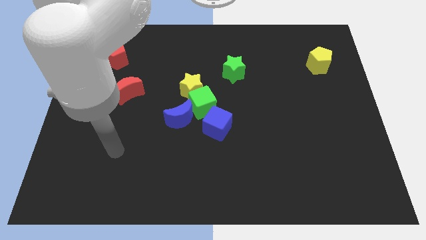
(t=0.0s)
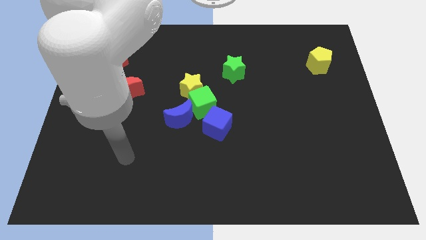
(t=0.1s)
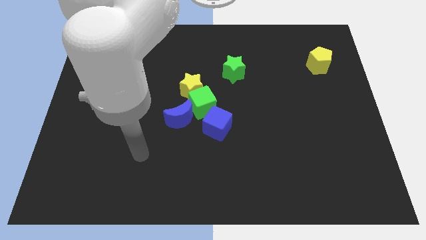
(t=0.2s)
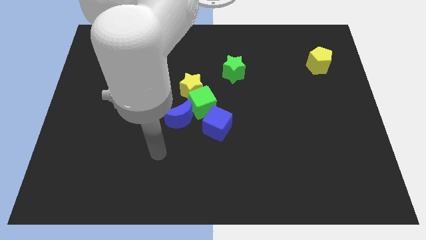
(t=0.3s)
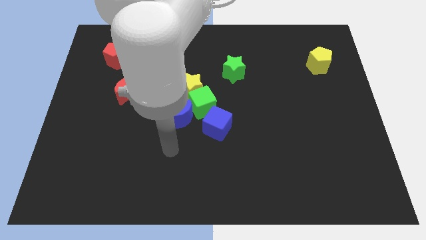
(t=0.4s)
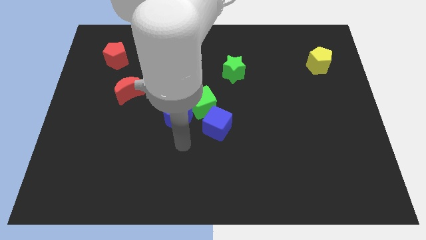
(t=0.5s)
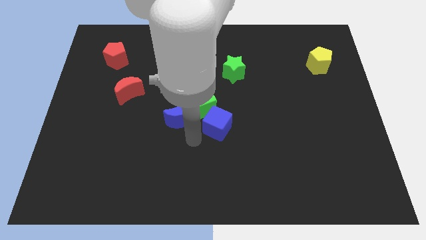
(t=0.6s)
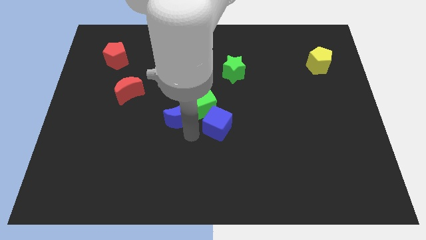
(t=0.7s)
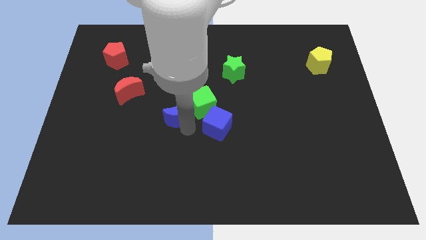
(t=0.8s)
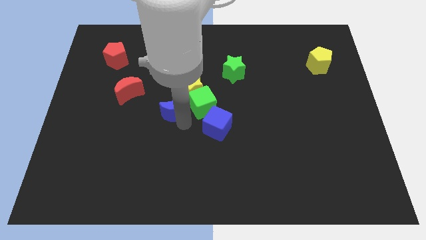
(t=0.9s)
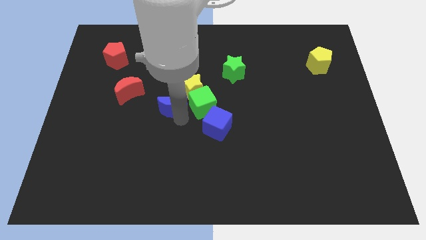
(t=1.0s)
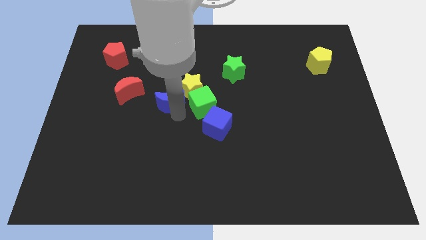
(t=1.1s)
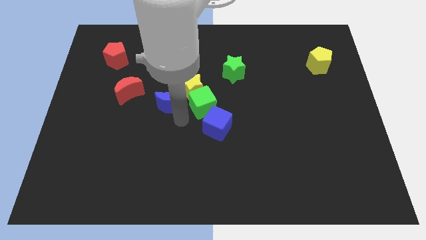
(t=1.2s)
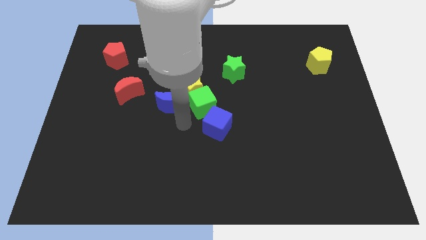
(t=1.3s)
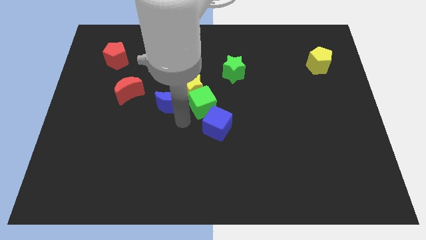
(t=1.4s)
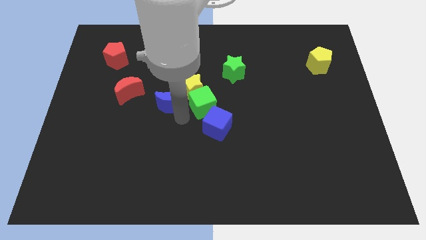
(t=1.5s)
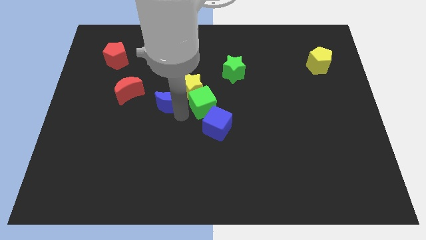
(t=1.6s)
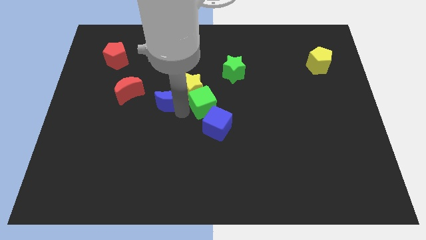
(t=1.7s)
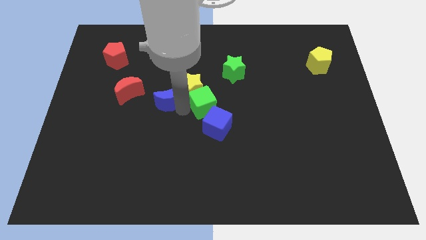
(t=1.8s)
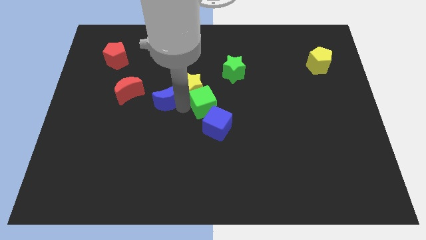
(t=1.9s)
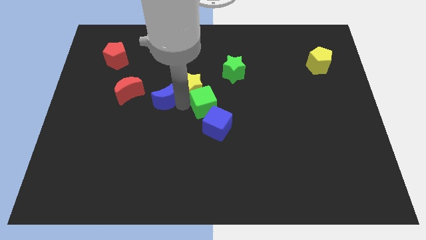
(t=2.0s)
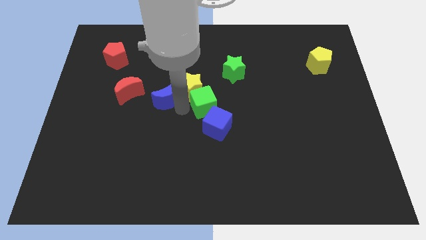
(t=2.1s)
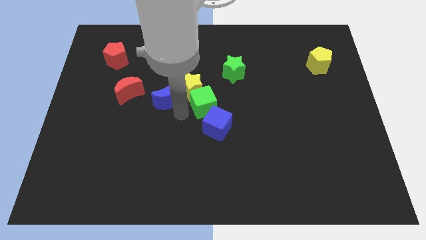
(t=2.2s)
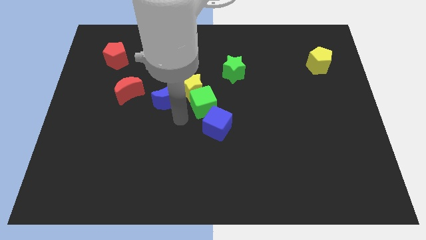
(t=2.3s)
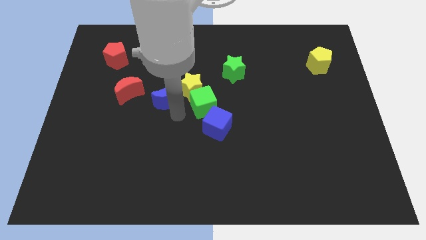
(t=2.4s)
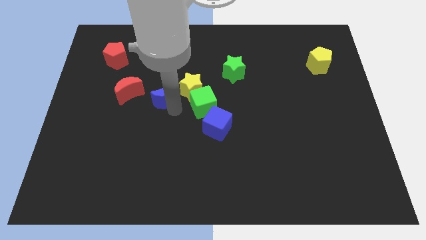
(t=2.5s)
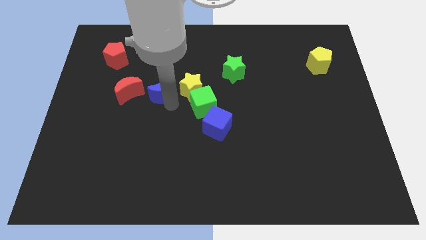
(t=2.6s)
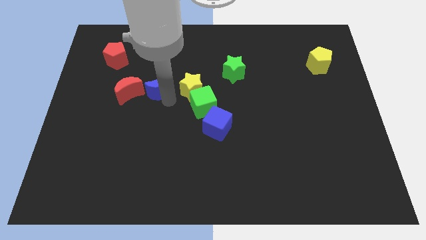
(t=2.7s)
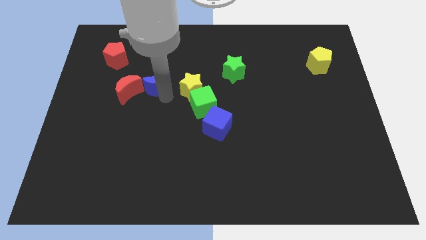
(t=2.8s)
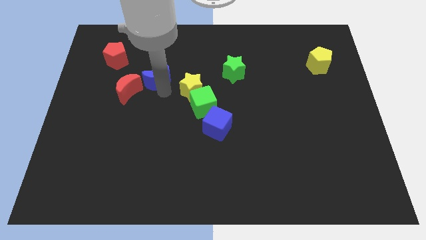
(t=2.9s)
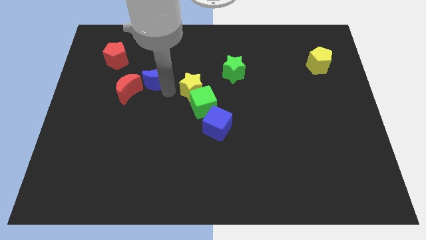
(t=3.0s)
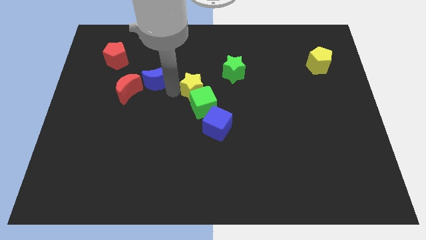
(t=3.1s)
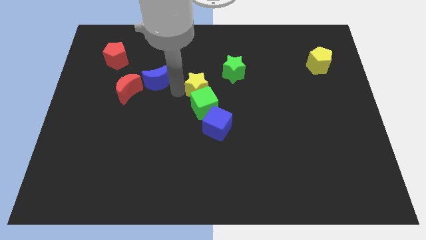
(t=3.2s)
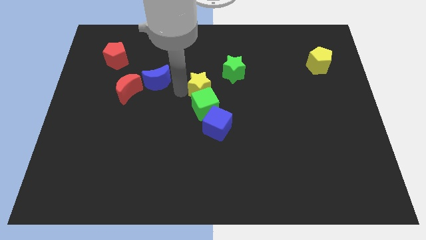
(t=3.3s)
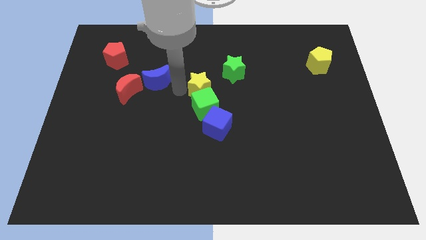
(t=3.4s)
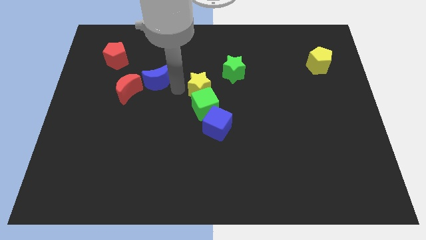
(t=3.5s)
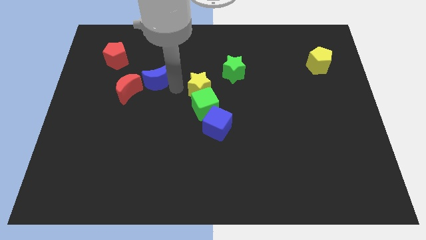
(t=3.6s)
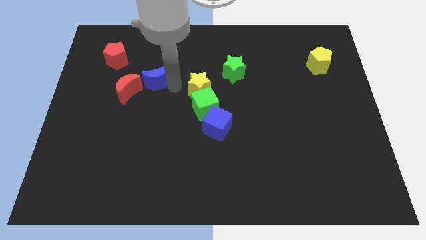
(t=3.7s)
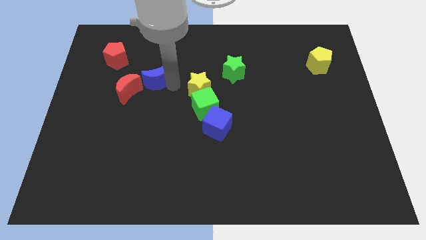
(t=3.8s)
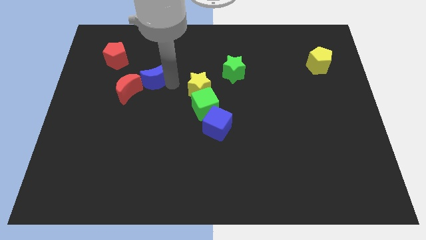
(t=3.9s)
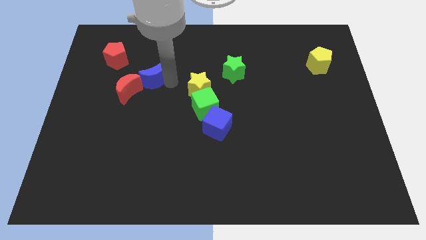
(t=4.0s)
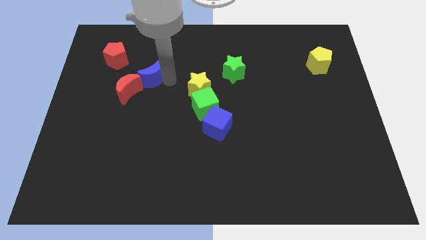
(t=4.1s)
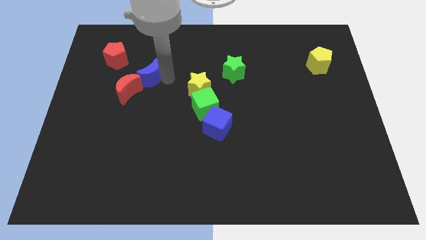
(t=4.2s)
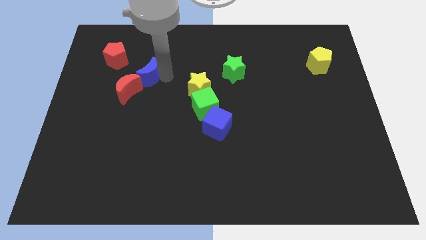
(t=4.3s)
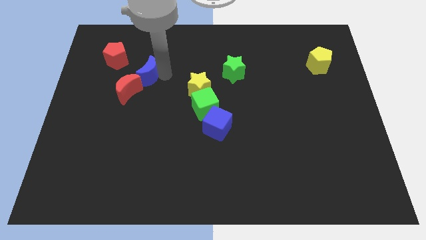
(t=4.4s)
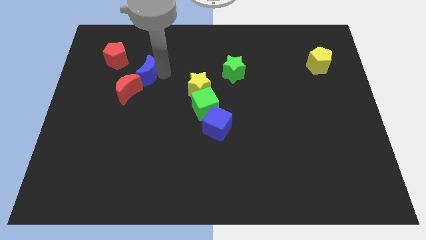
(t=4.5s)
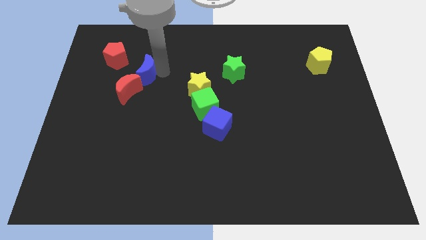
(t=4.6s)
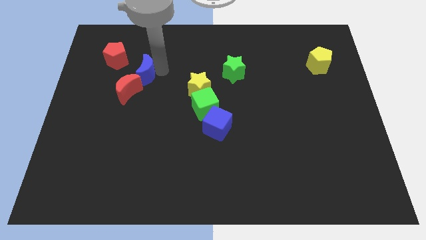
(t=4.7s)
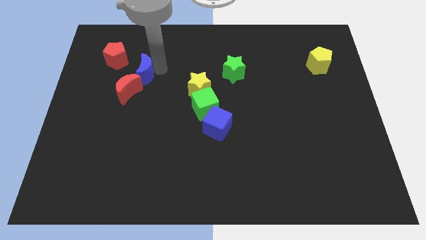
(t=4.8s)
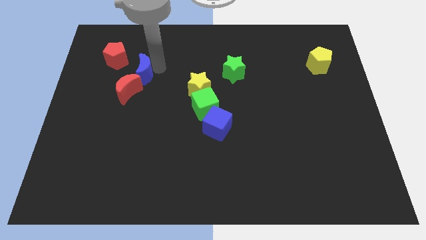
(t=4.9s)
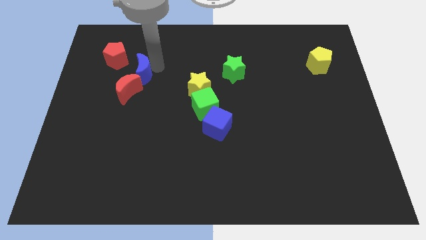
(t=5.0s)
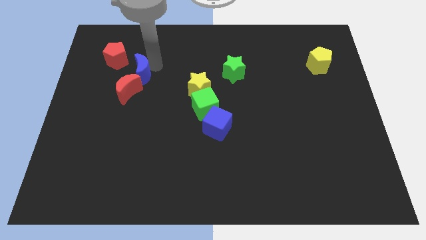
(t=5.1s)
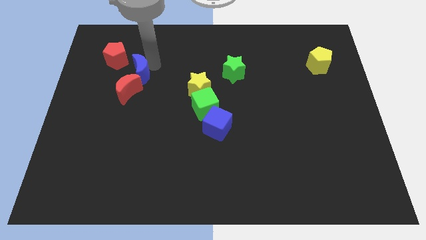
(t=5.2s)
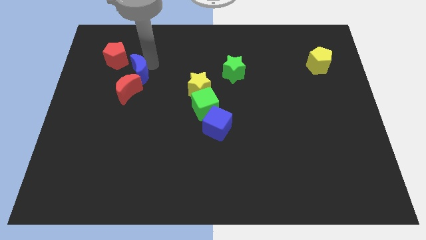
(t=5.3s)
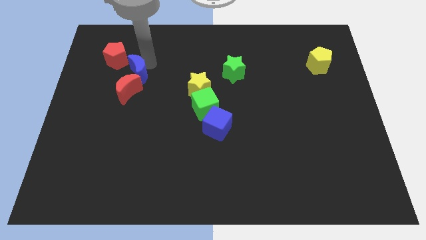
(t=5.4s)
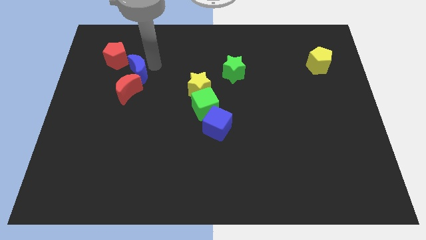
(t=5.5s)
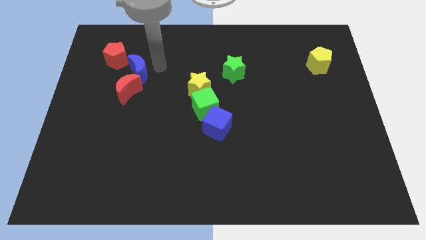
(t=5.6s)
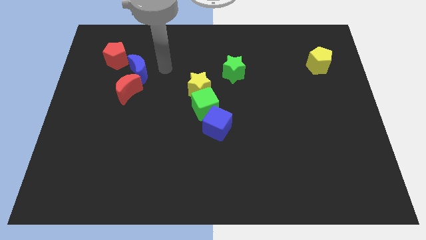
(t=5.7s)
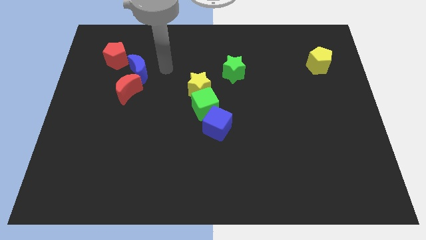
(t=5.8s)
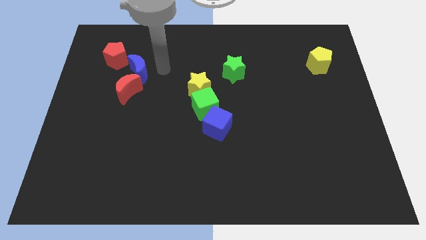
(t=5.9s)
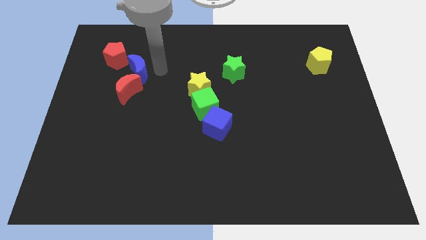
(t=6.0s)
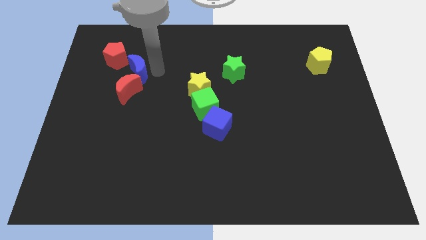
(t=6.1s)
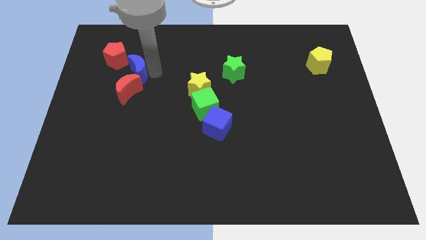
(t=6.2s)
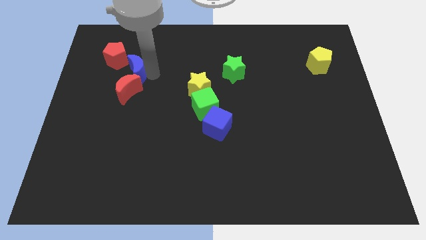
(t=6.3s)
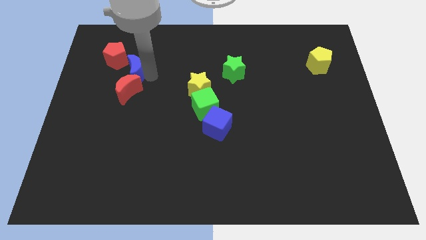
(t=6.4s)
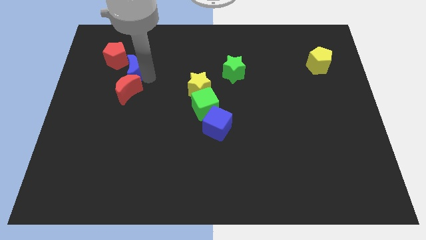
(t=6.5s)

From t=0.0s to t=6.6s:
push the blue moon to the top left side of the red moon
